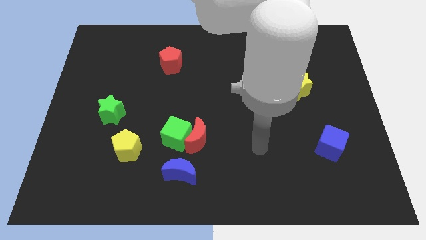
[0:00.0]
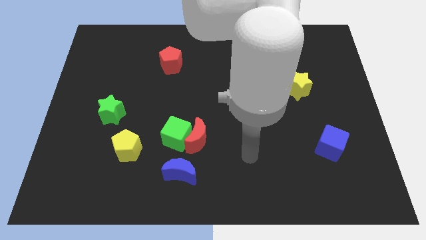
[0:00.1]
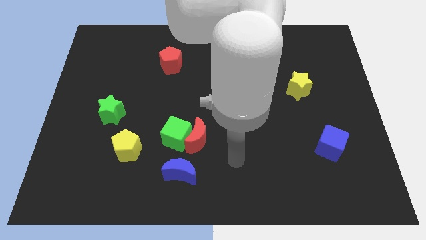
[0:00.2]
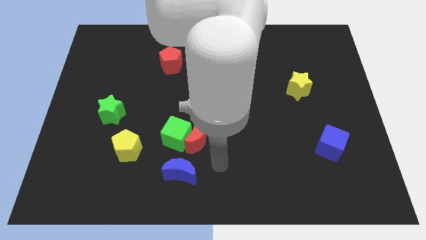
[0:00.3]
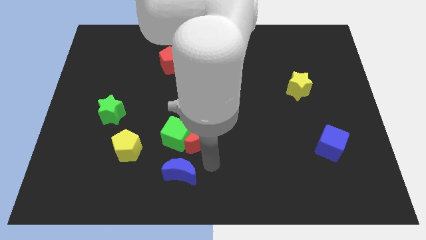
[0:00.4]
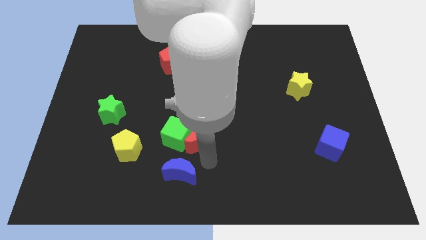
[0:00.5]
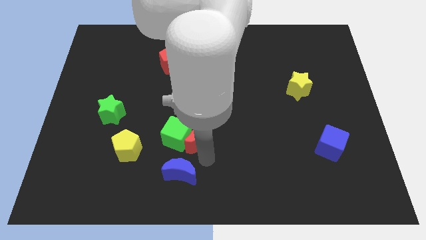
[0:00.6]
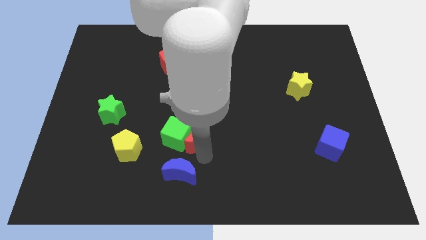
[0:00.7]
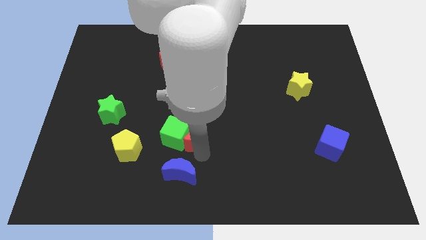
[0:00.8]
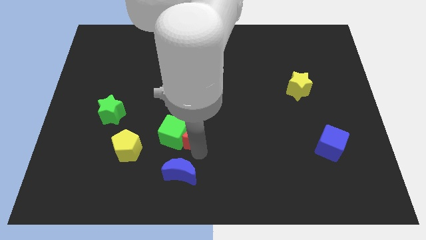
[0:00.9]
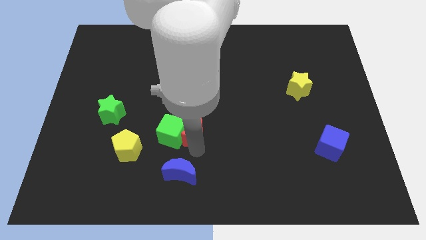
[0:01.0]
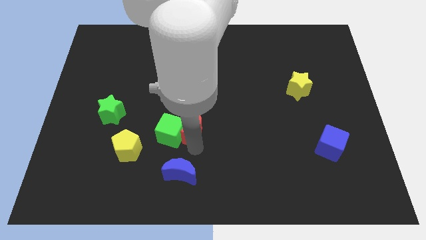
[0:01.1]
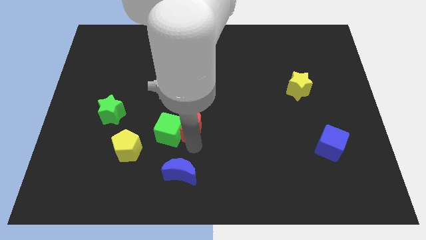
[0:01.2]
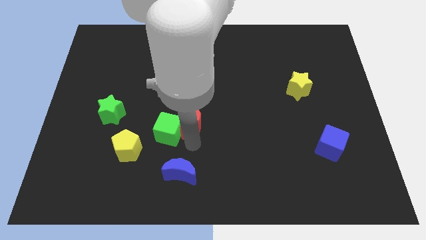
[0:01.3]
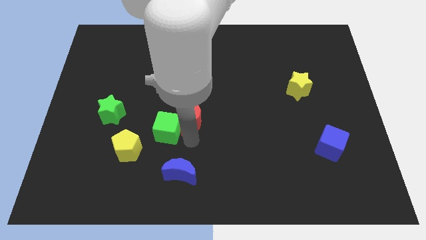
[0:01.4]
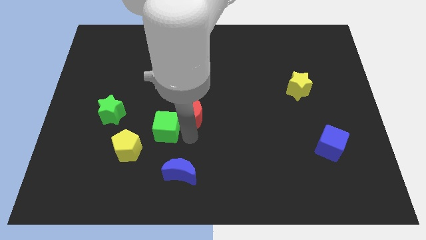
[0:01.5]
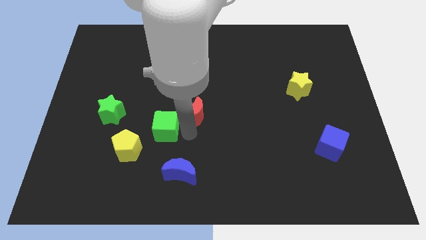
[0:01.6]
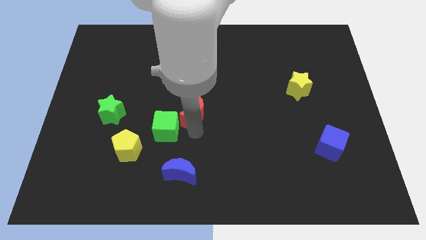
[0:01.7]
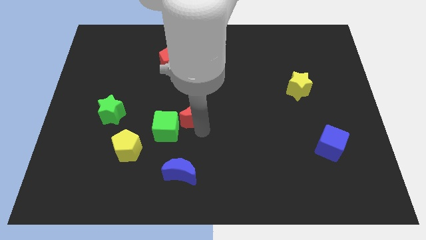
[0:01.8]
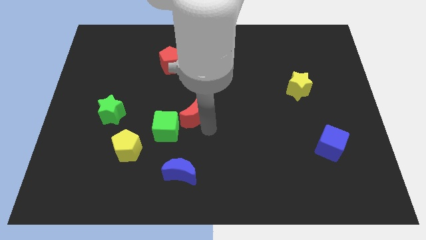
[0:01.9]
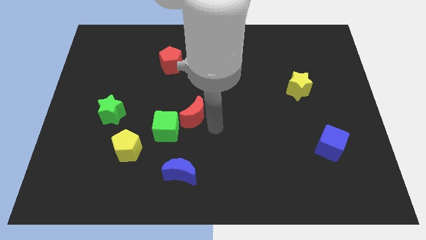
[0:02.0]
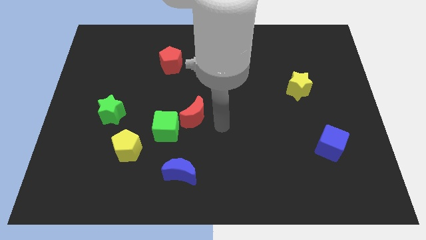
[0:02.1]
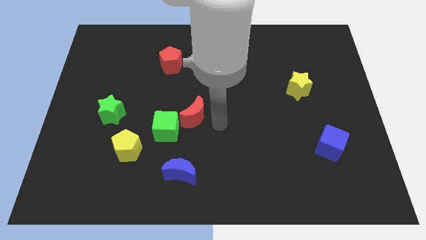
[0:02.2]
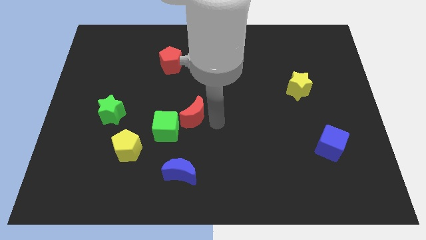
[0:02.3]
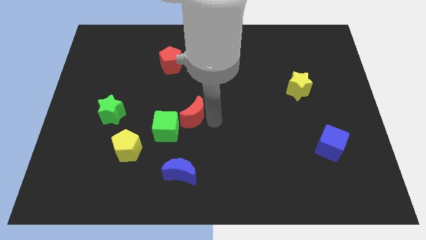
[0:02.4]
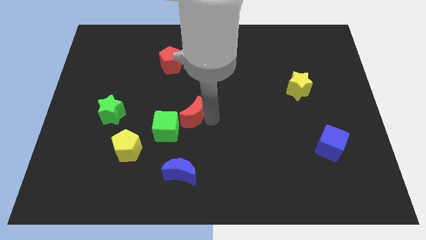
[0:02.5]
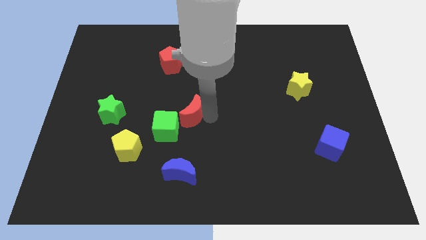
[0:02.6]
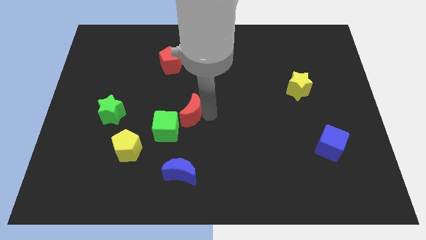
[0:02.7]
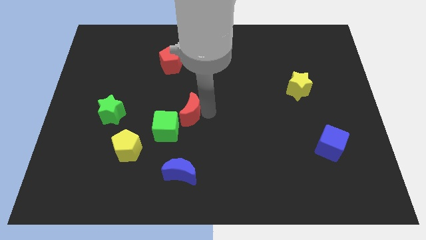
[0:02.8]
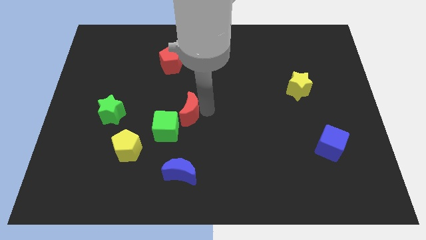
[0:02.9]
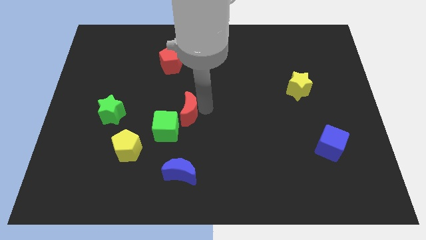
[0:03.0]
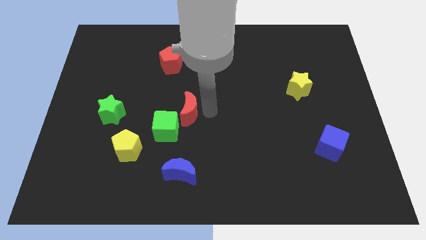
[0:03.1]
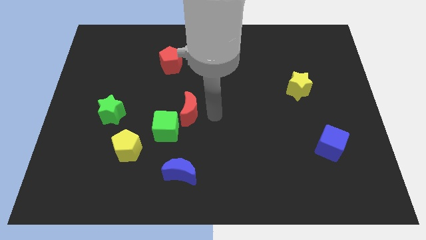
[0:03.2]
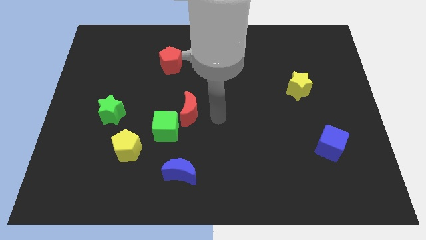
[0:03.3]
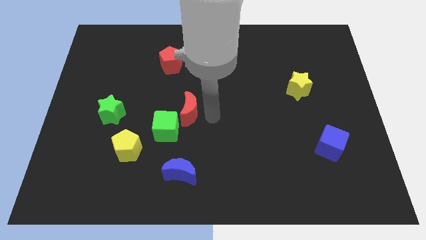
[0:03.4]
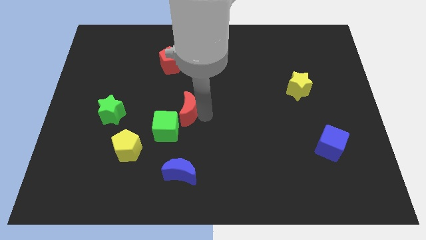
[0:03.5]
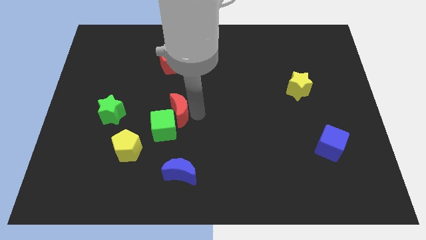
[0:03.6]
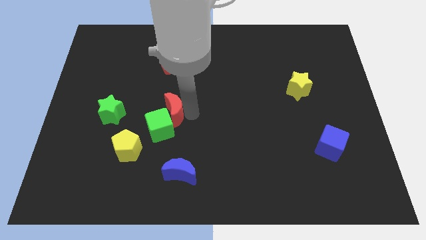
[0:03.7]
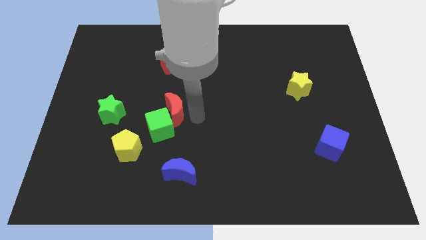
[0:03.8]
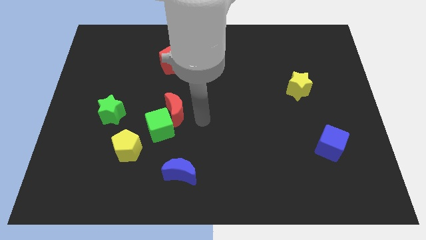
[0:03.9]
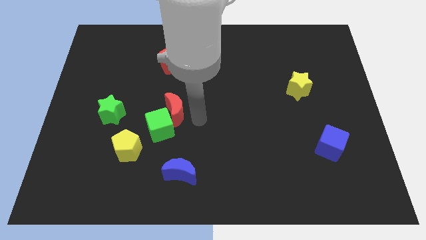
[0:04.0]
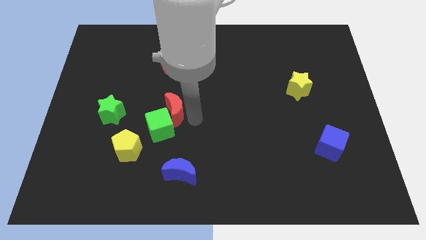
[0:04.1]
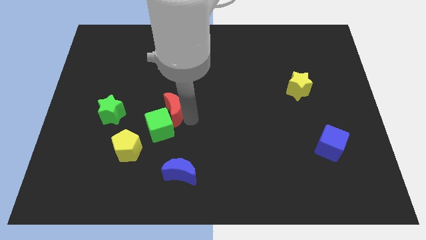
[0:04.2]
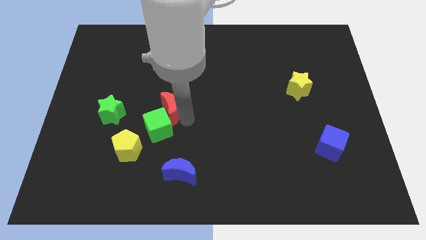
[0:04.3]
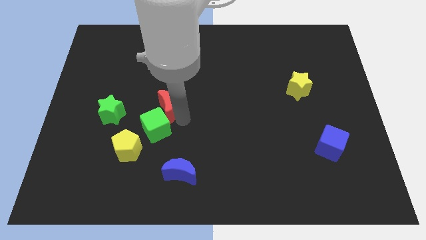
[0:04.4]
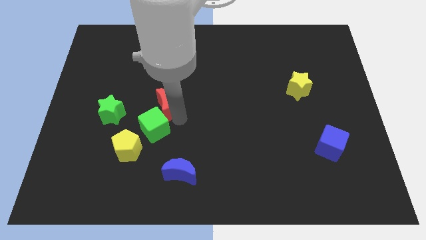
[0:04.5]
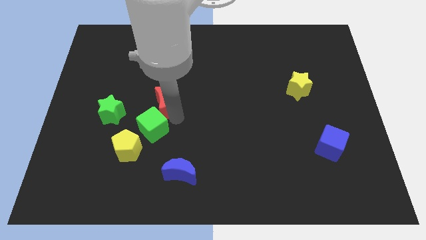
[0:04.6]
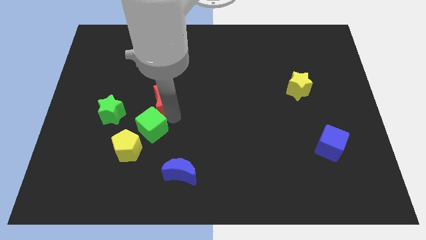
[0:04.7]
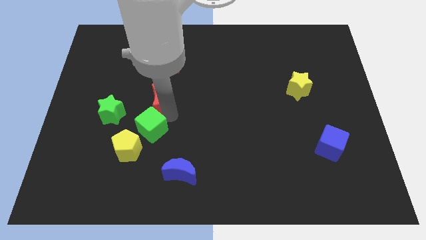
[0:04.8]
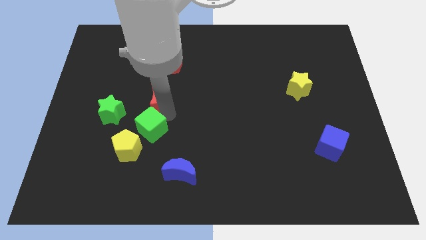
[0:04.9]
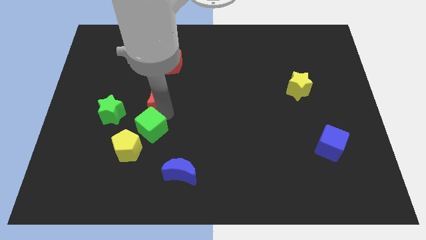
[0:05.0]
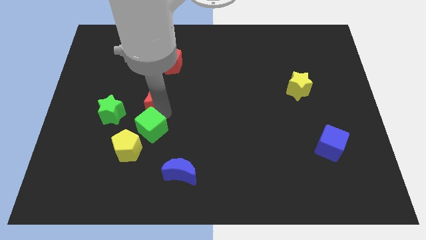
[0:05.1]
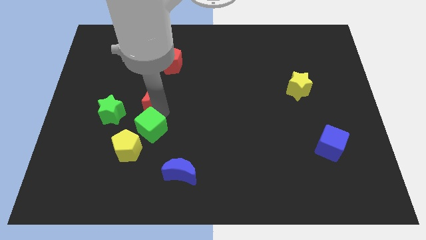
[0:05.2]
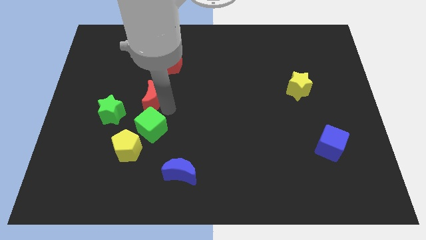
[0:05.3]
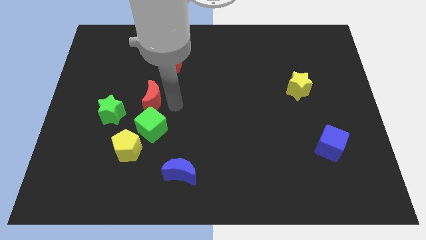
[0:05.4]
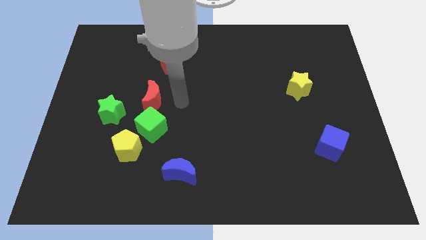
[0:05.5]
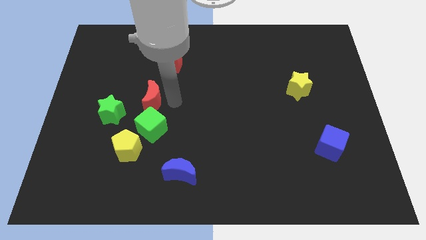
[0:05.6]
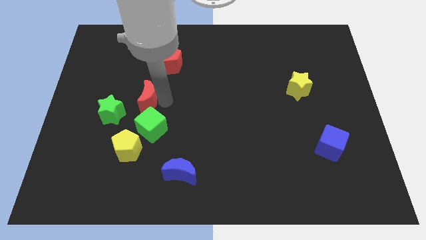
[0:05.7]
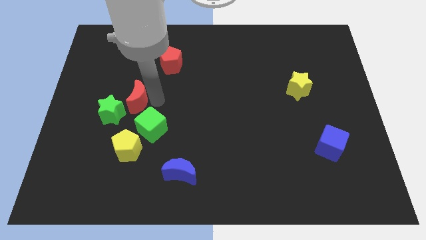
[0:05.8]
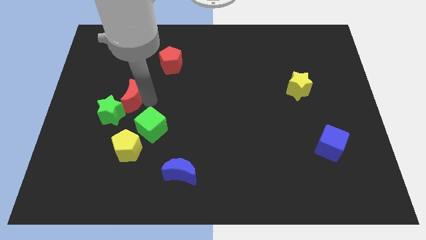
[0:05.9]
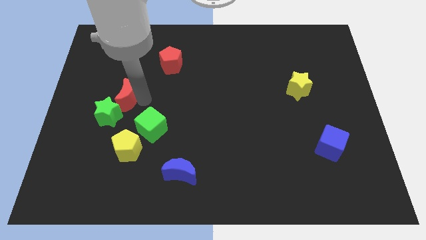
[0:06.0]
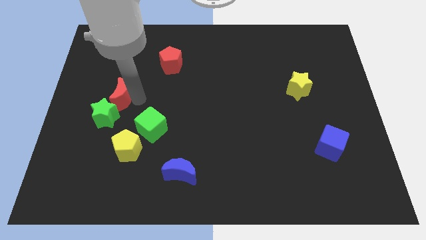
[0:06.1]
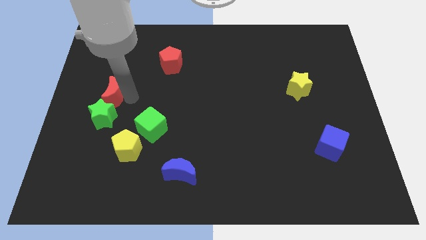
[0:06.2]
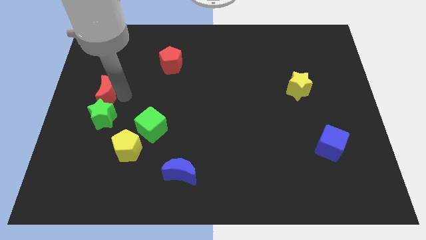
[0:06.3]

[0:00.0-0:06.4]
slide the red moon to the top left of the green star
